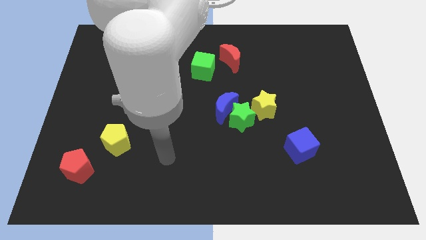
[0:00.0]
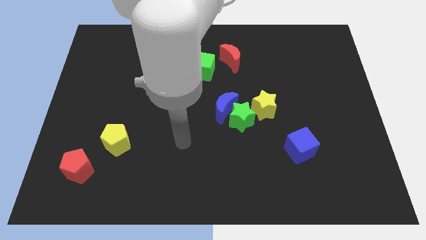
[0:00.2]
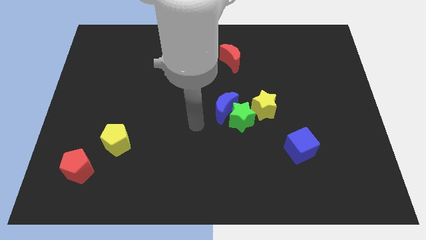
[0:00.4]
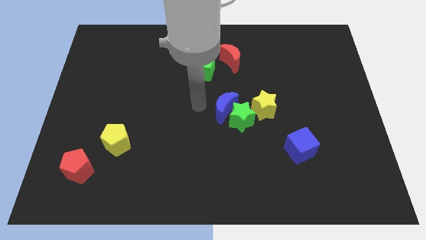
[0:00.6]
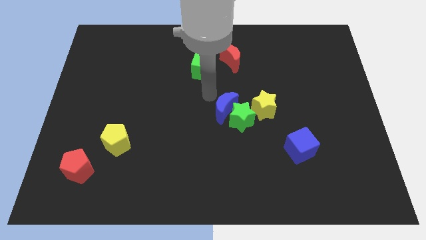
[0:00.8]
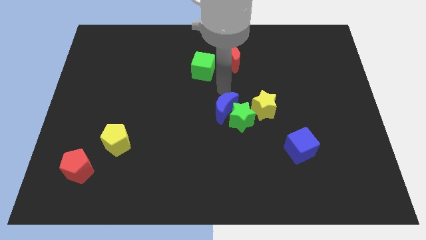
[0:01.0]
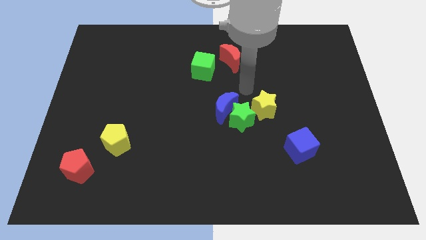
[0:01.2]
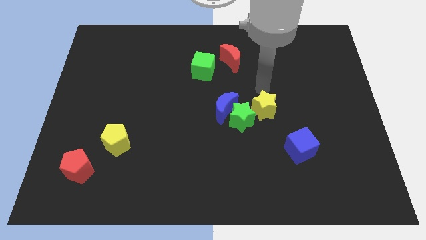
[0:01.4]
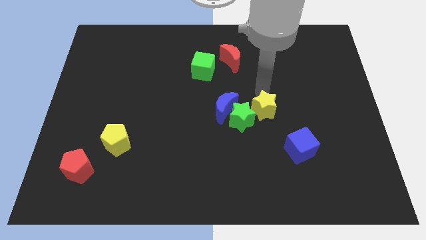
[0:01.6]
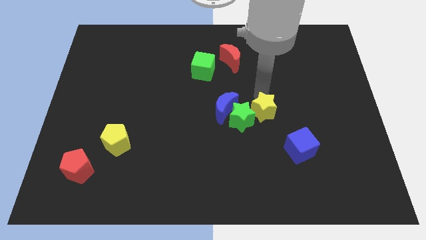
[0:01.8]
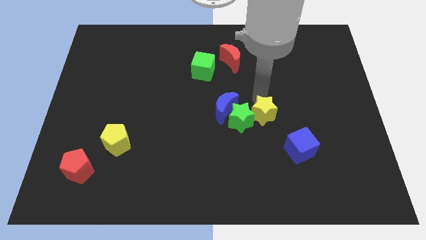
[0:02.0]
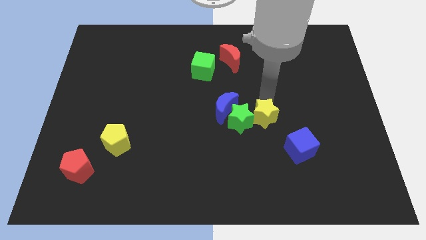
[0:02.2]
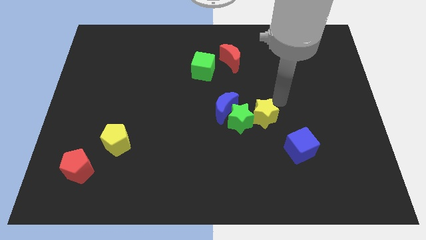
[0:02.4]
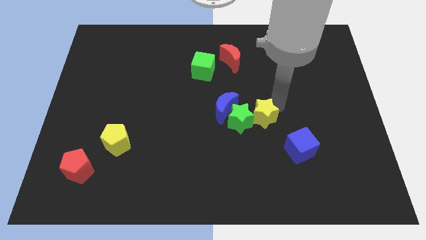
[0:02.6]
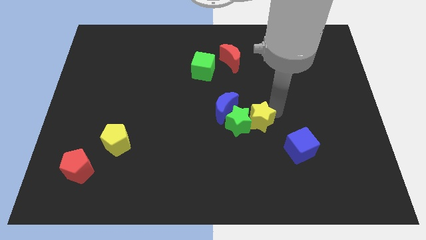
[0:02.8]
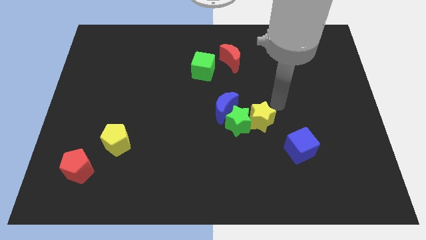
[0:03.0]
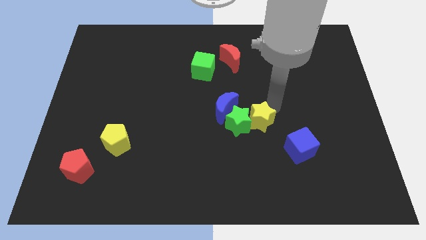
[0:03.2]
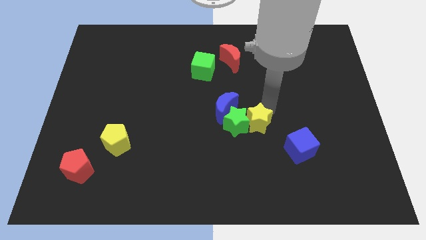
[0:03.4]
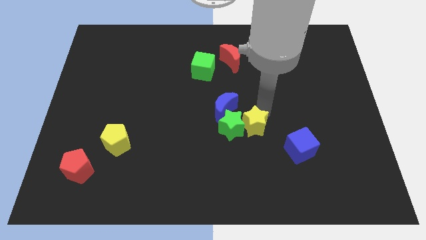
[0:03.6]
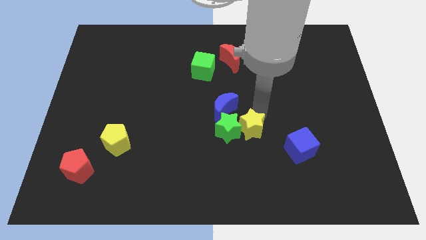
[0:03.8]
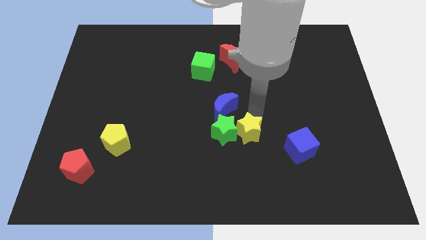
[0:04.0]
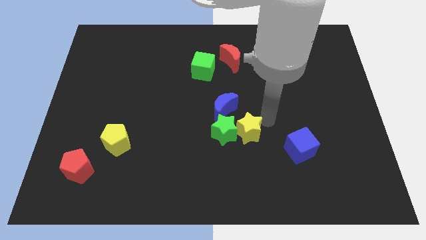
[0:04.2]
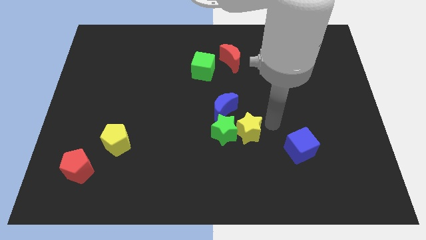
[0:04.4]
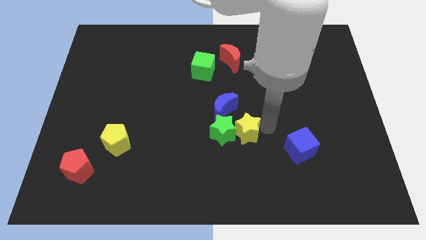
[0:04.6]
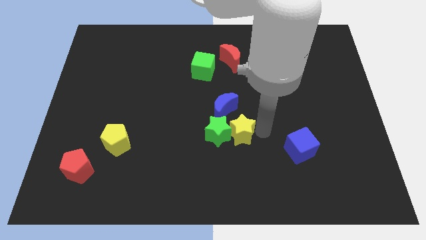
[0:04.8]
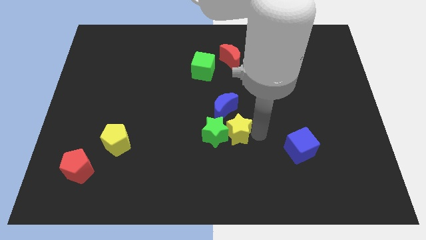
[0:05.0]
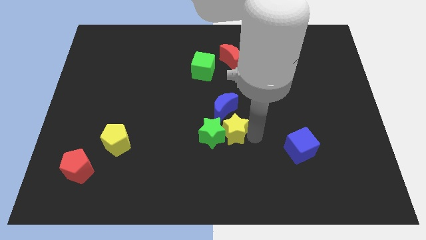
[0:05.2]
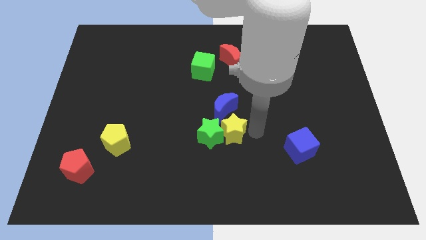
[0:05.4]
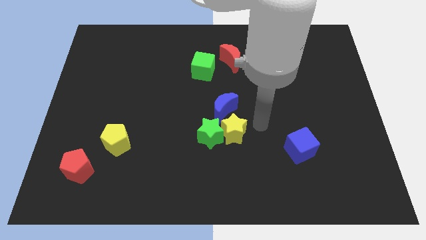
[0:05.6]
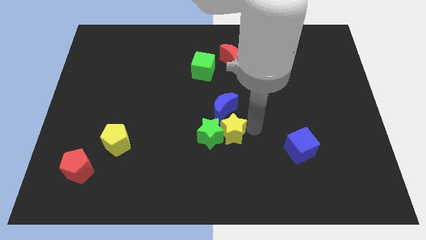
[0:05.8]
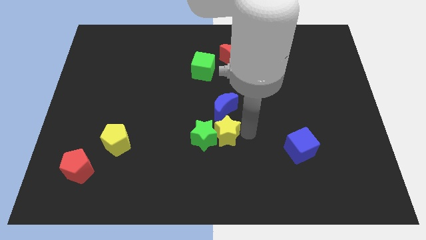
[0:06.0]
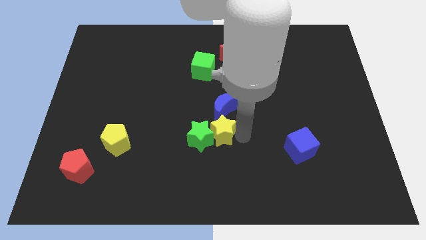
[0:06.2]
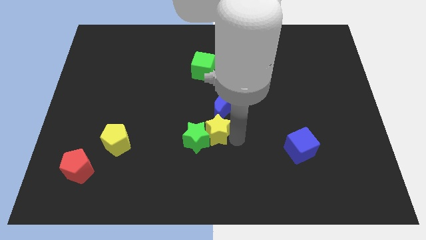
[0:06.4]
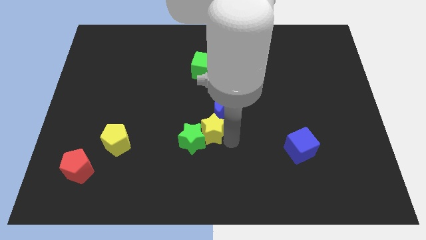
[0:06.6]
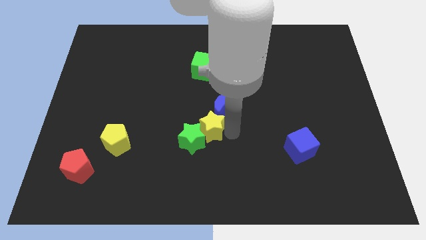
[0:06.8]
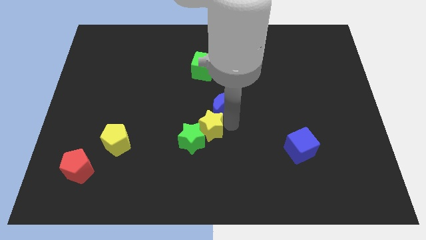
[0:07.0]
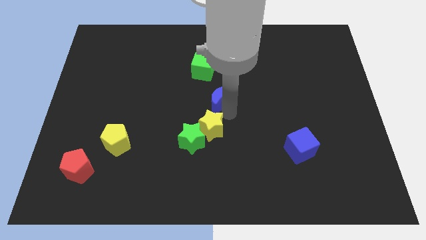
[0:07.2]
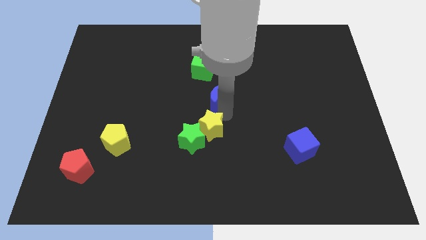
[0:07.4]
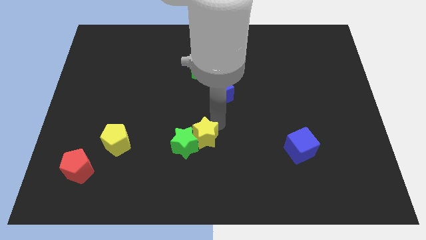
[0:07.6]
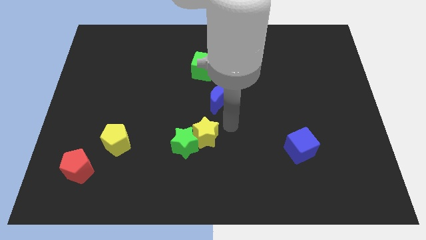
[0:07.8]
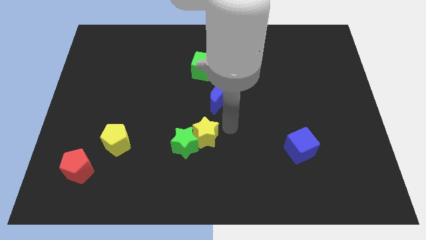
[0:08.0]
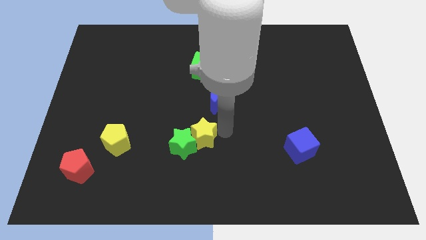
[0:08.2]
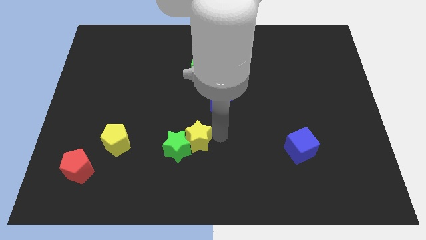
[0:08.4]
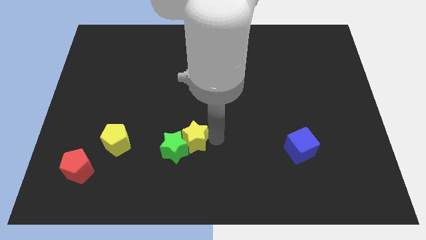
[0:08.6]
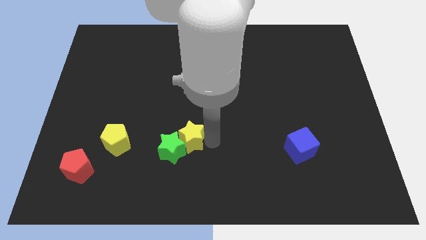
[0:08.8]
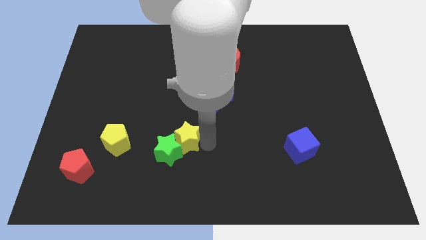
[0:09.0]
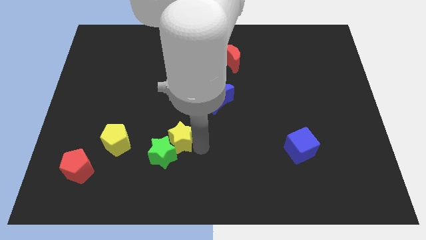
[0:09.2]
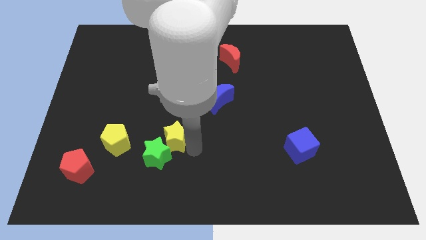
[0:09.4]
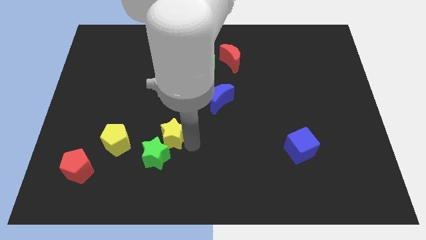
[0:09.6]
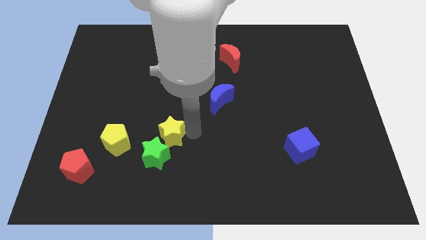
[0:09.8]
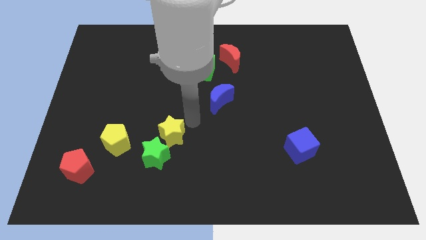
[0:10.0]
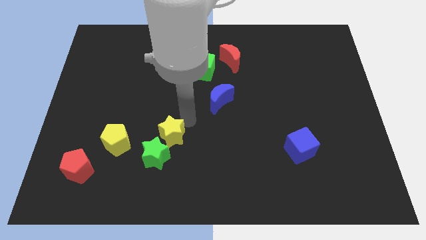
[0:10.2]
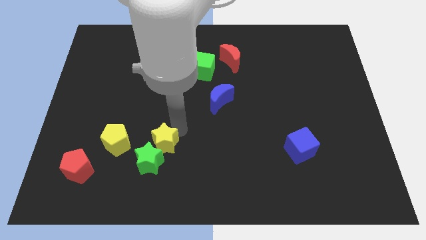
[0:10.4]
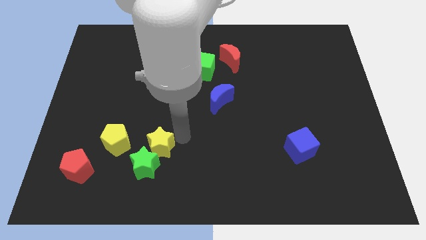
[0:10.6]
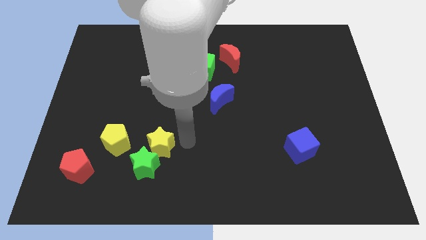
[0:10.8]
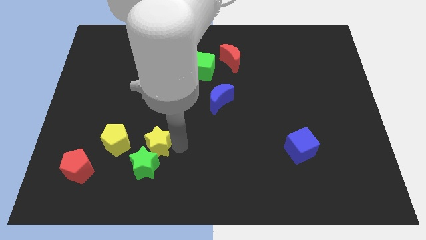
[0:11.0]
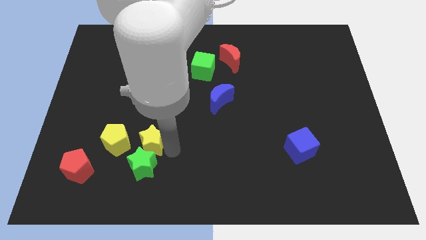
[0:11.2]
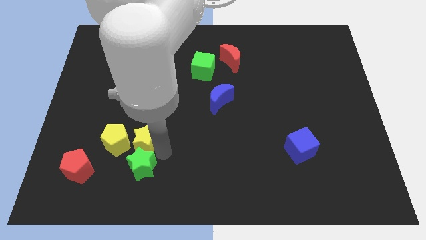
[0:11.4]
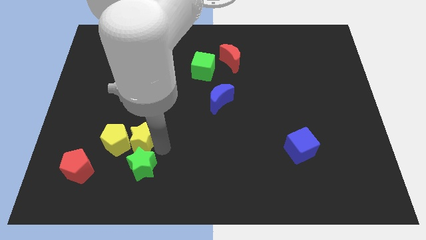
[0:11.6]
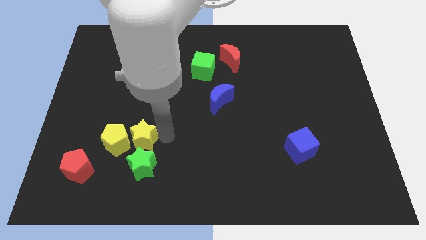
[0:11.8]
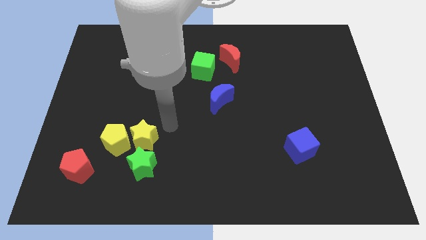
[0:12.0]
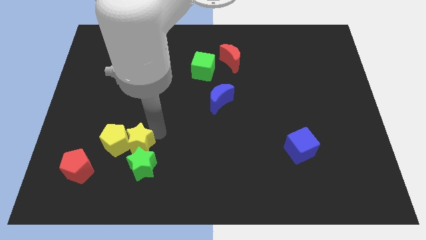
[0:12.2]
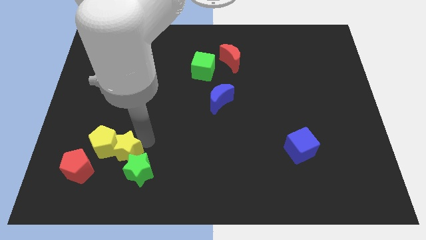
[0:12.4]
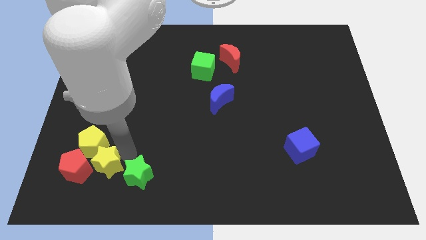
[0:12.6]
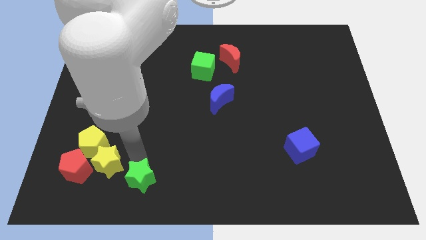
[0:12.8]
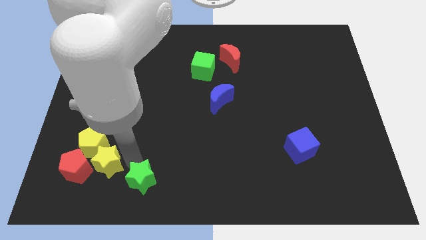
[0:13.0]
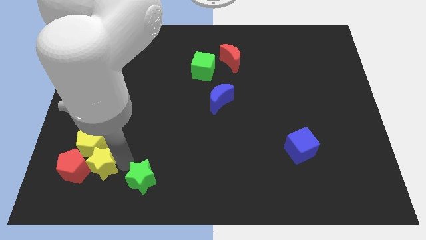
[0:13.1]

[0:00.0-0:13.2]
move the yellow star next to the red pentagon

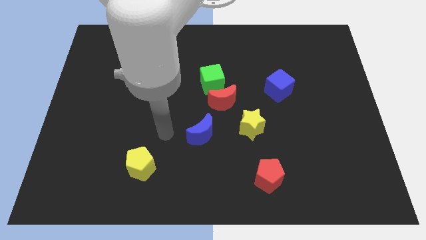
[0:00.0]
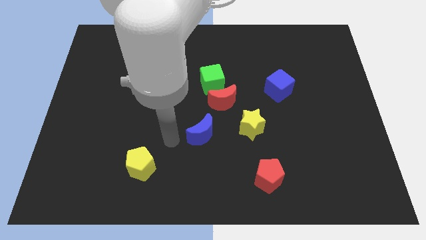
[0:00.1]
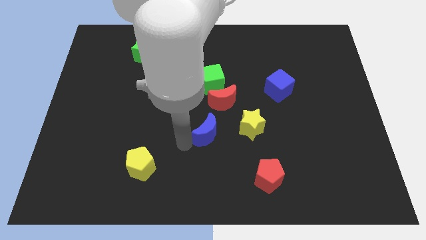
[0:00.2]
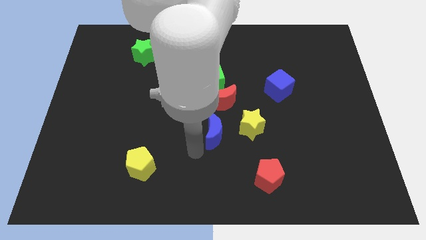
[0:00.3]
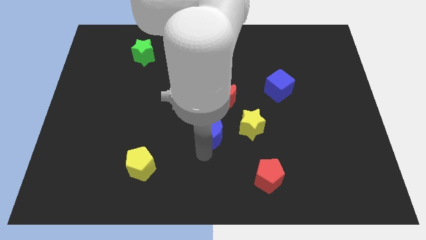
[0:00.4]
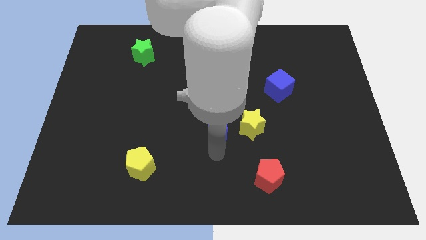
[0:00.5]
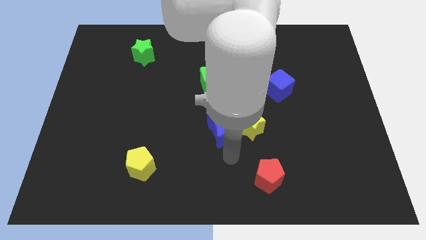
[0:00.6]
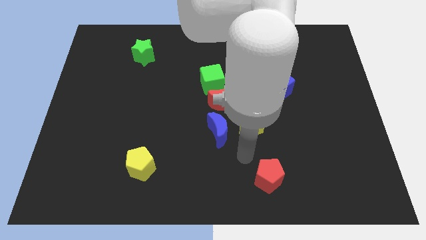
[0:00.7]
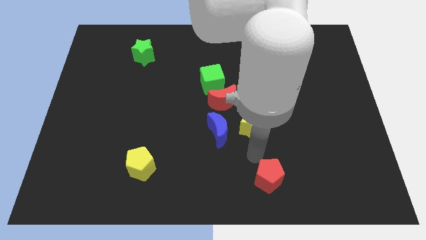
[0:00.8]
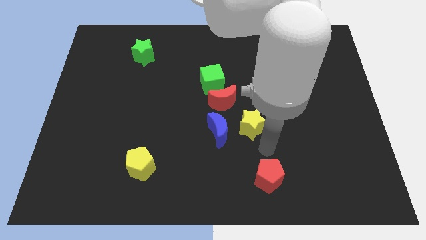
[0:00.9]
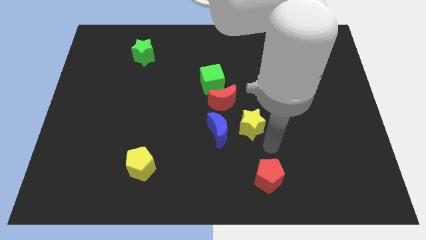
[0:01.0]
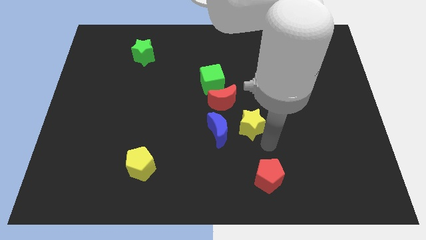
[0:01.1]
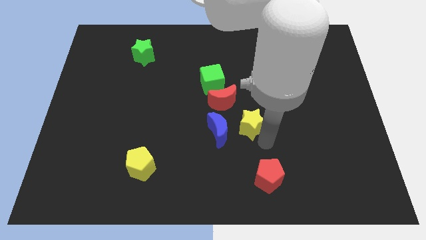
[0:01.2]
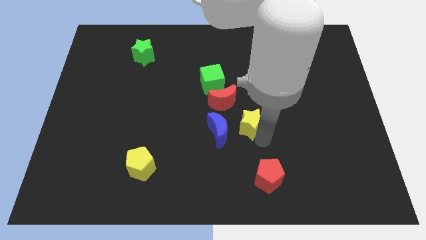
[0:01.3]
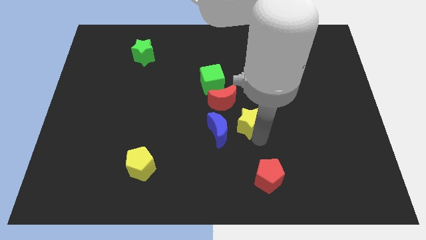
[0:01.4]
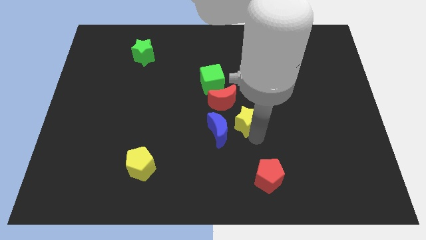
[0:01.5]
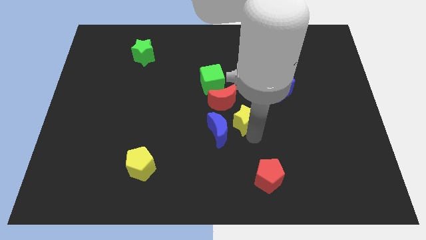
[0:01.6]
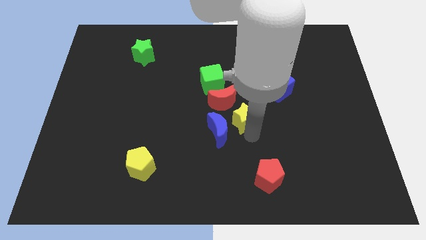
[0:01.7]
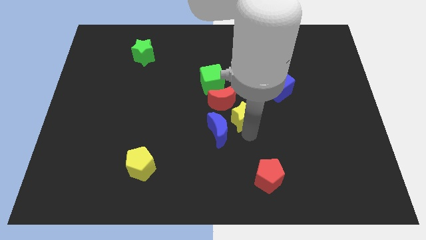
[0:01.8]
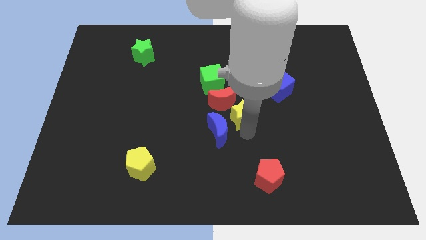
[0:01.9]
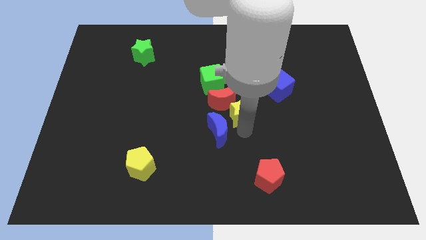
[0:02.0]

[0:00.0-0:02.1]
push the yellow star towards the red moon
